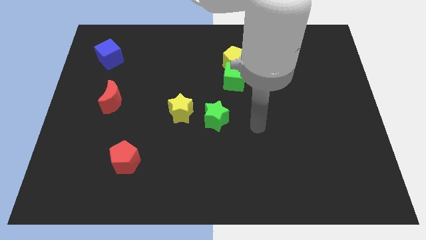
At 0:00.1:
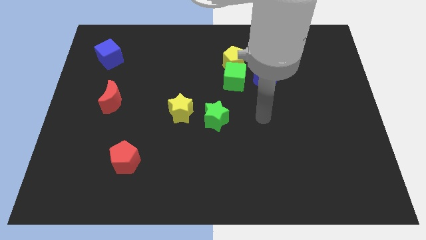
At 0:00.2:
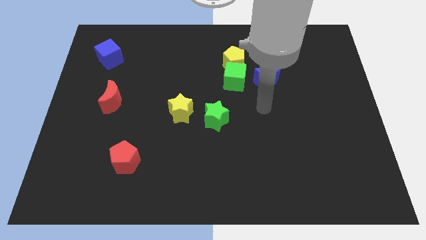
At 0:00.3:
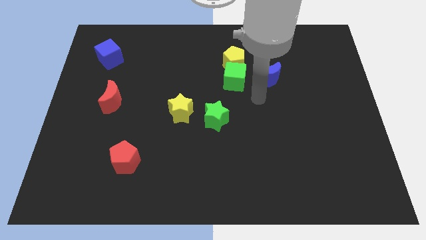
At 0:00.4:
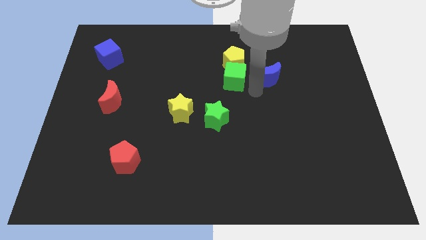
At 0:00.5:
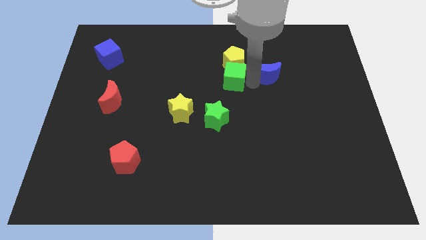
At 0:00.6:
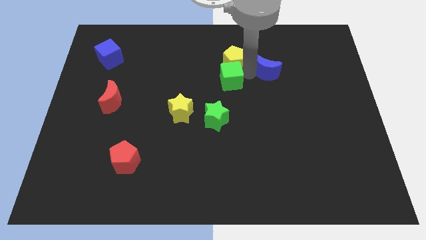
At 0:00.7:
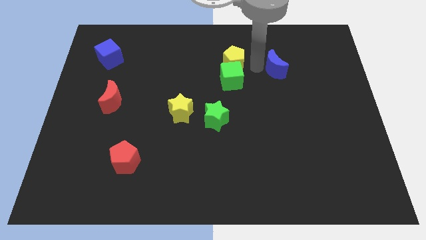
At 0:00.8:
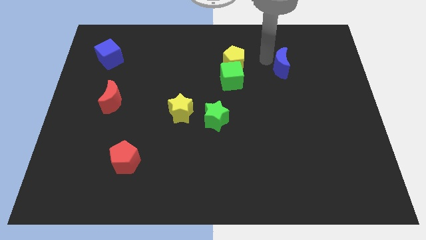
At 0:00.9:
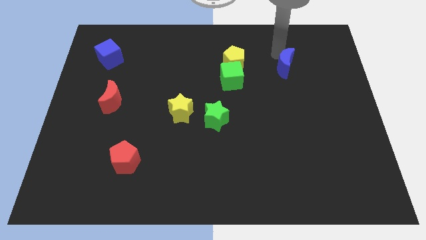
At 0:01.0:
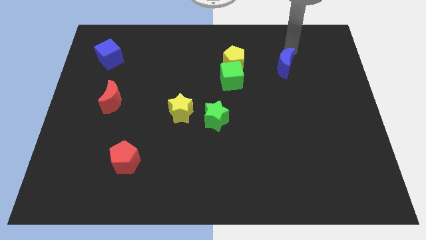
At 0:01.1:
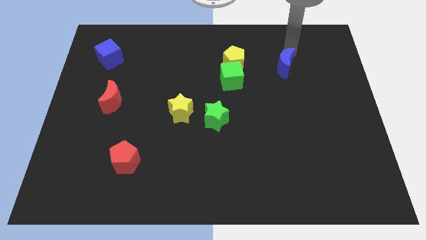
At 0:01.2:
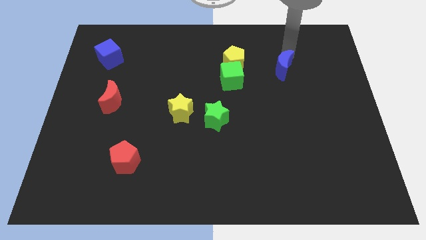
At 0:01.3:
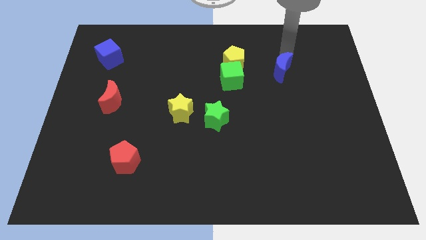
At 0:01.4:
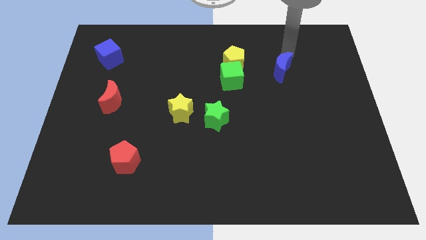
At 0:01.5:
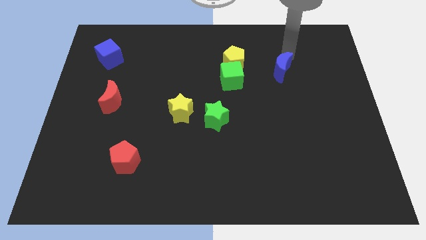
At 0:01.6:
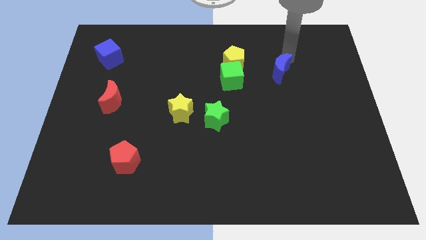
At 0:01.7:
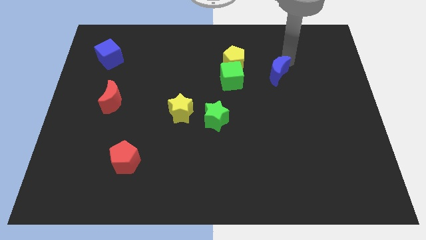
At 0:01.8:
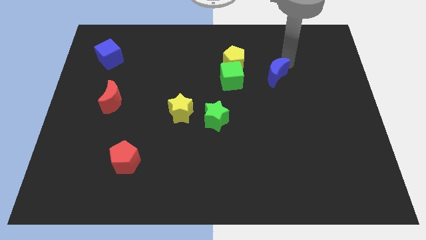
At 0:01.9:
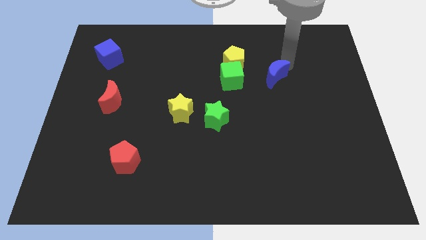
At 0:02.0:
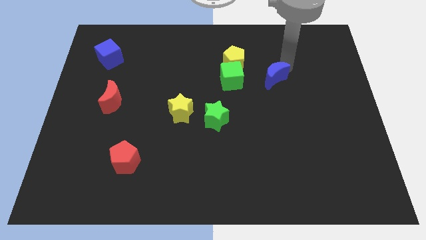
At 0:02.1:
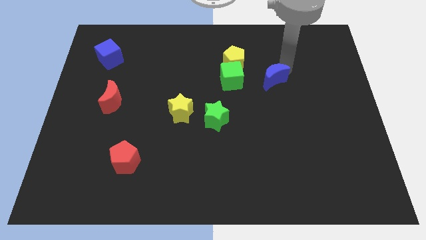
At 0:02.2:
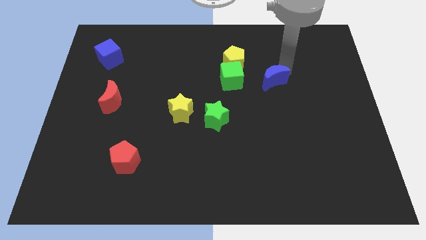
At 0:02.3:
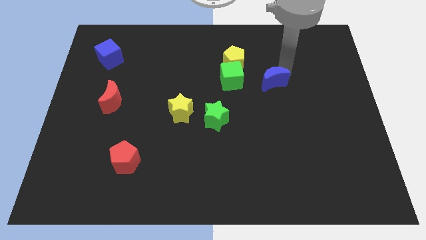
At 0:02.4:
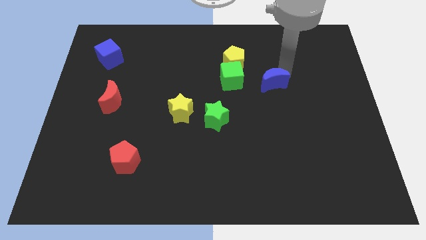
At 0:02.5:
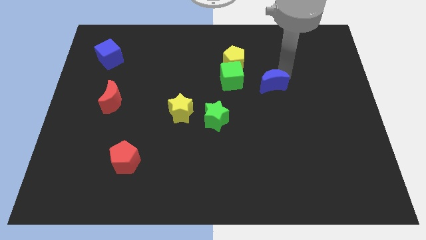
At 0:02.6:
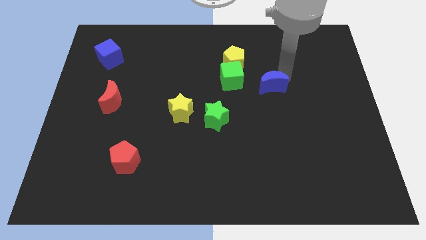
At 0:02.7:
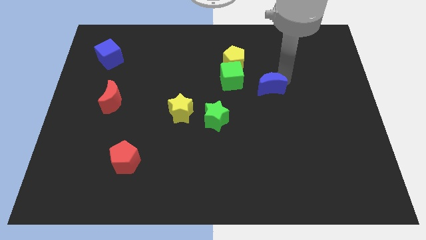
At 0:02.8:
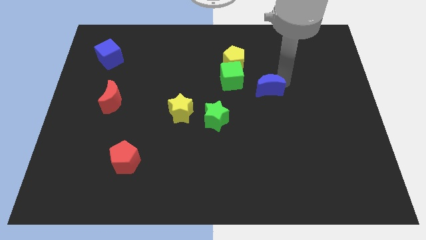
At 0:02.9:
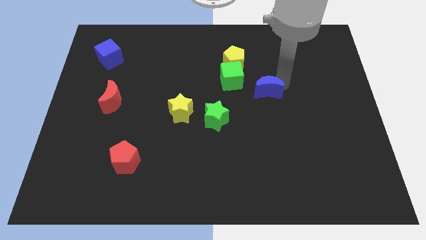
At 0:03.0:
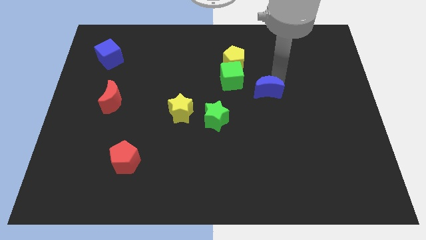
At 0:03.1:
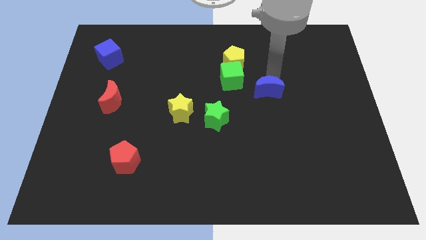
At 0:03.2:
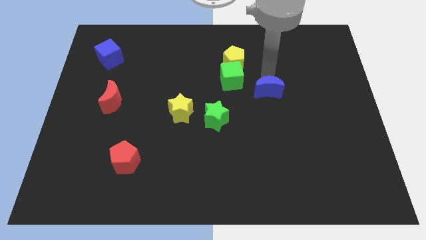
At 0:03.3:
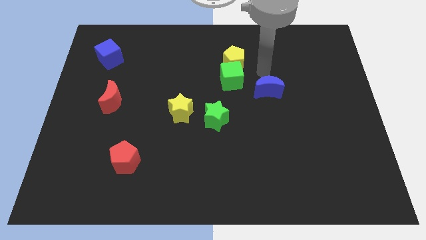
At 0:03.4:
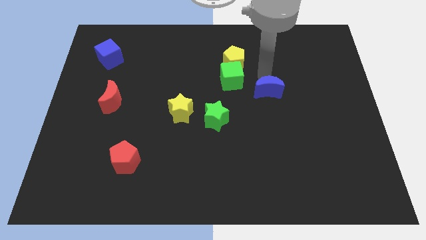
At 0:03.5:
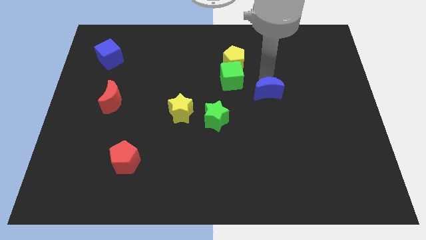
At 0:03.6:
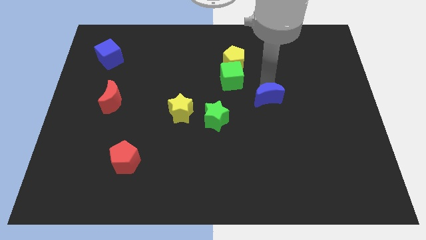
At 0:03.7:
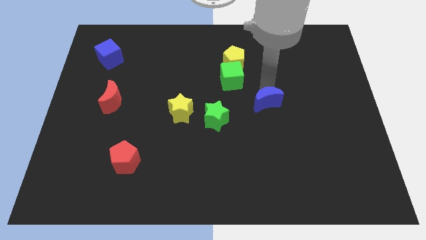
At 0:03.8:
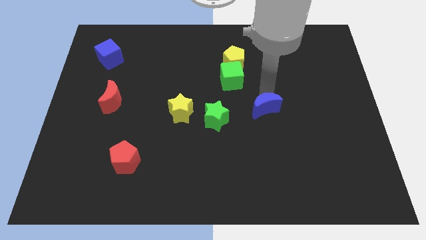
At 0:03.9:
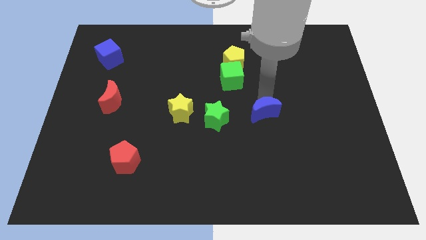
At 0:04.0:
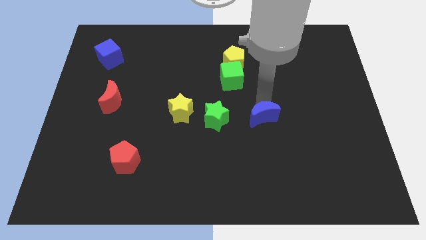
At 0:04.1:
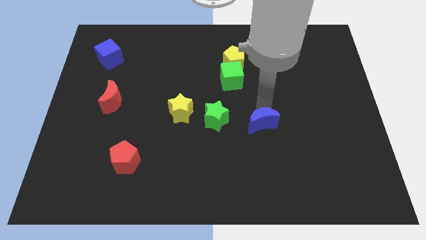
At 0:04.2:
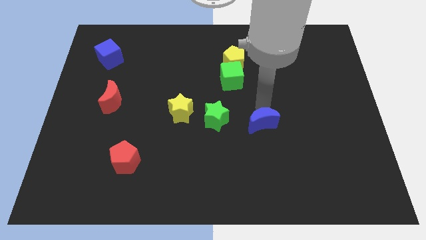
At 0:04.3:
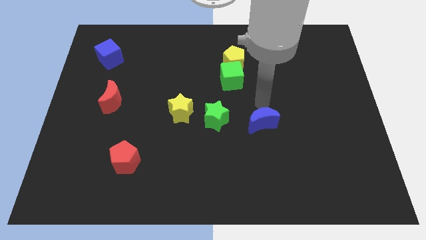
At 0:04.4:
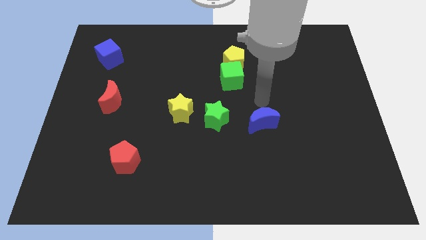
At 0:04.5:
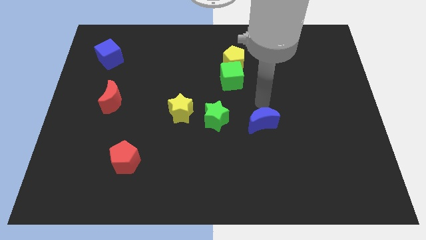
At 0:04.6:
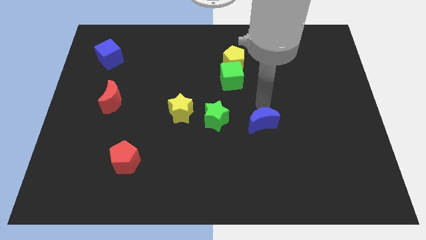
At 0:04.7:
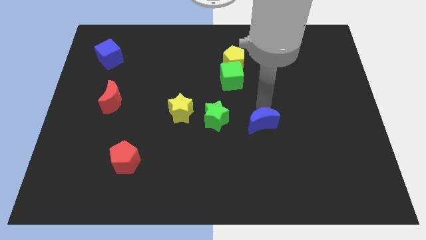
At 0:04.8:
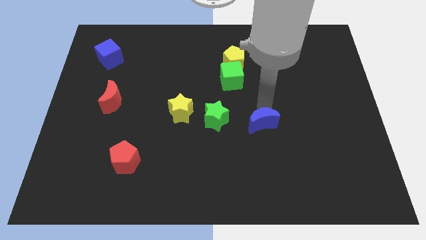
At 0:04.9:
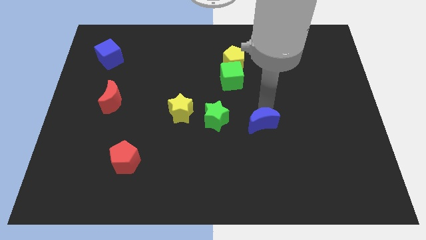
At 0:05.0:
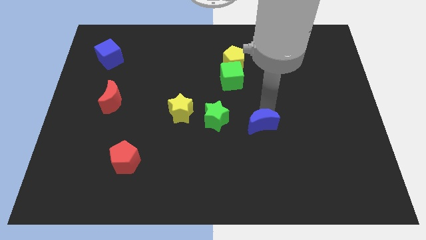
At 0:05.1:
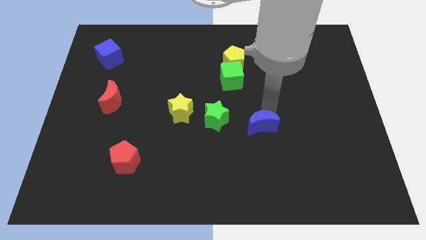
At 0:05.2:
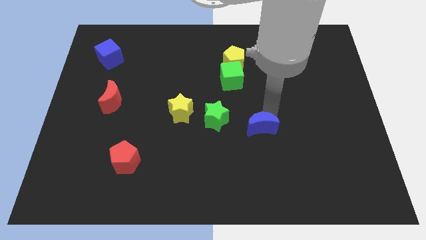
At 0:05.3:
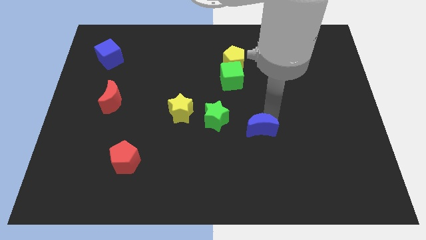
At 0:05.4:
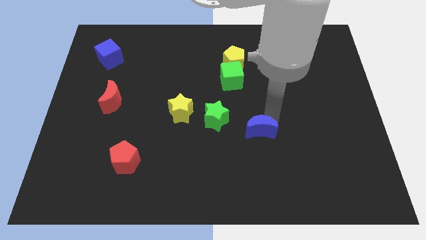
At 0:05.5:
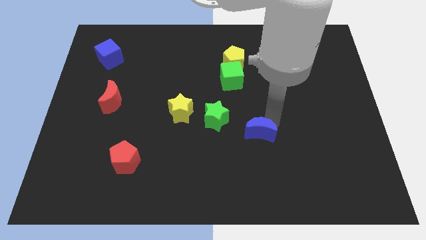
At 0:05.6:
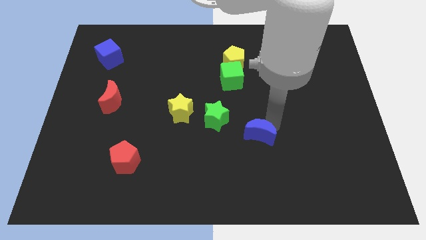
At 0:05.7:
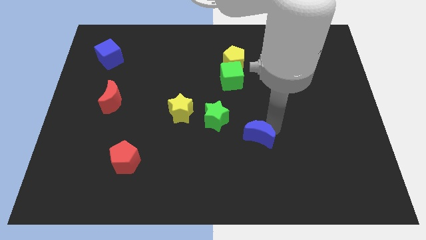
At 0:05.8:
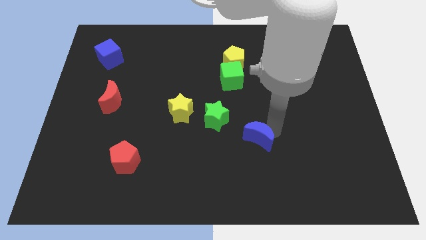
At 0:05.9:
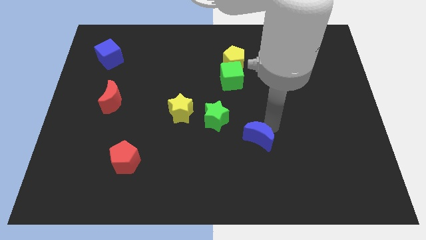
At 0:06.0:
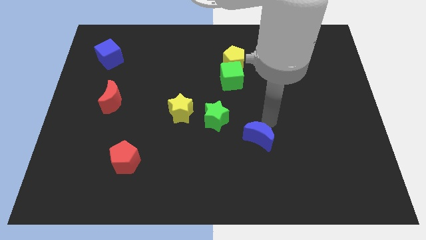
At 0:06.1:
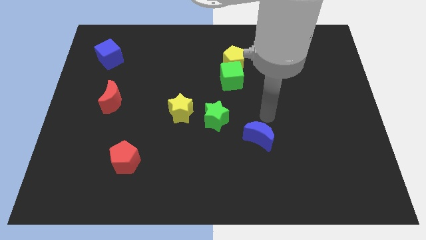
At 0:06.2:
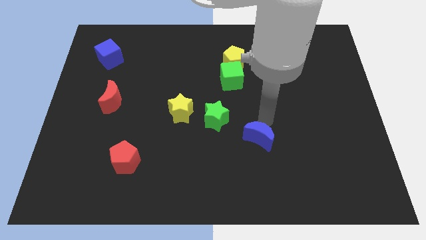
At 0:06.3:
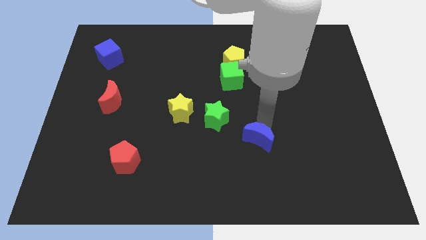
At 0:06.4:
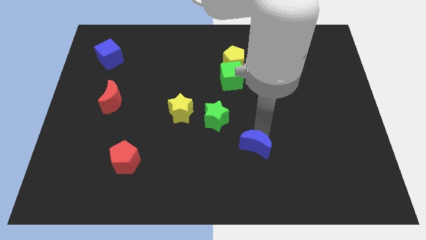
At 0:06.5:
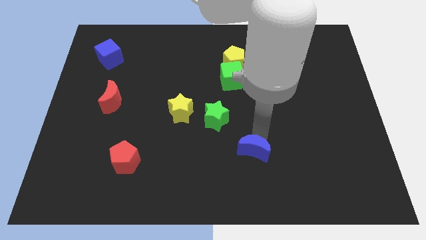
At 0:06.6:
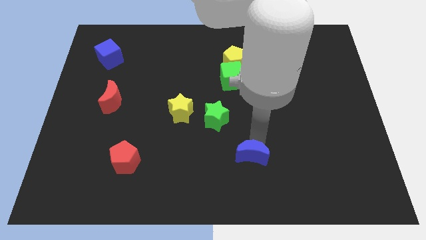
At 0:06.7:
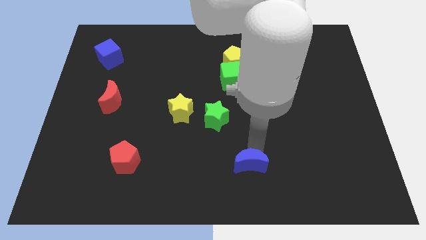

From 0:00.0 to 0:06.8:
push the blue moon to the bottom

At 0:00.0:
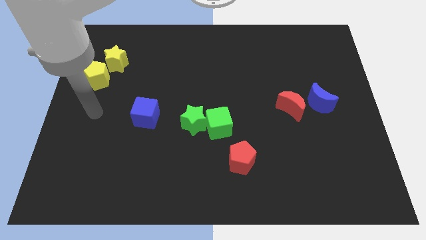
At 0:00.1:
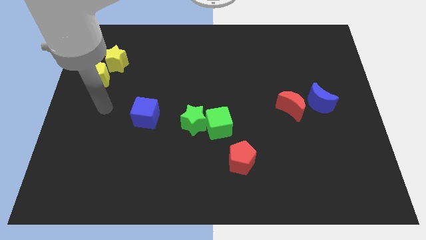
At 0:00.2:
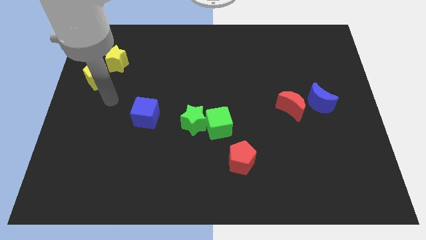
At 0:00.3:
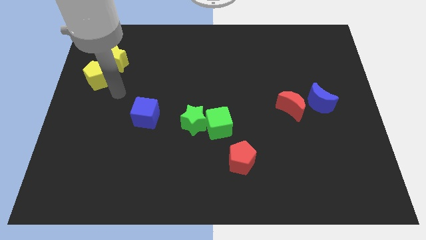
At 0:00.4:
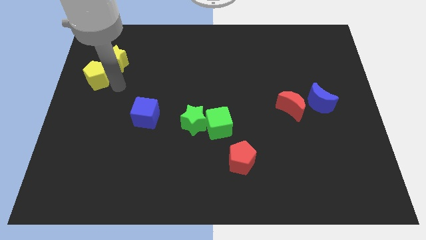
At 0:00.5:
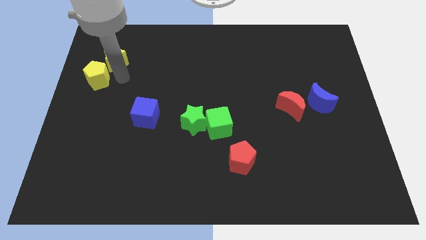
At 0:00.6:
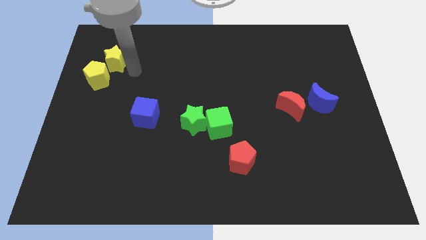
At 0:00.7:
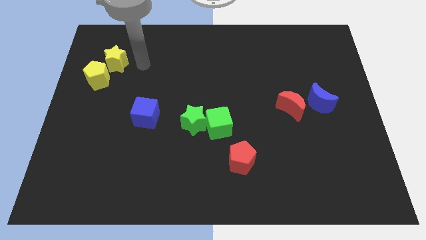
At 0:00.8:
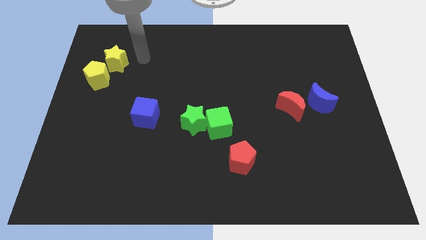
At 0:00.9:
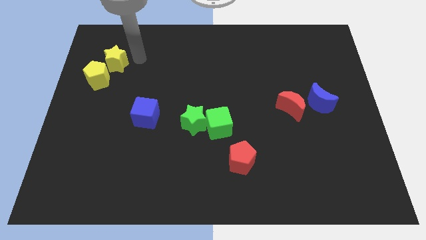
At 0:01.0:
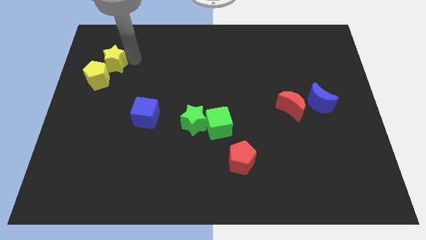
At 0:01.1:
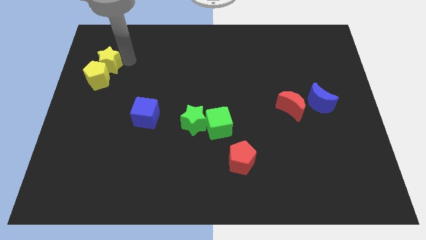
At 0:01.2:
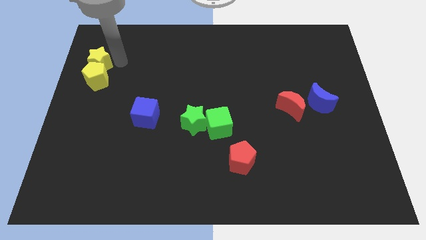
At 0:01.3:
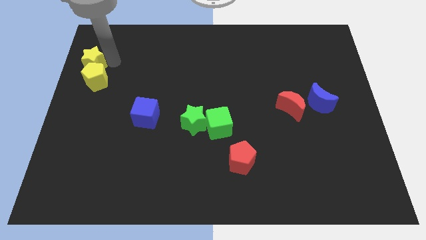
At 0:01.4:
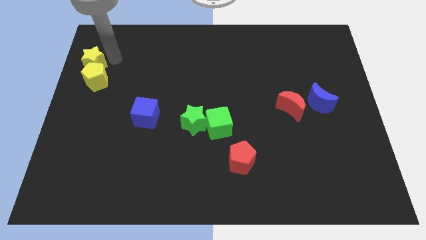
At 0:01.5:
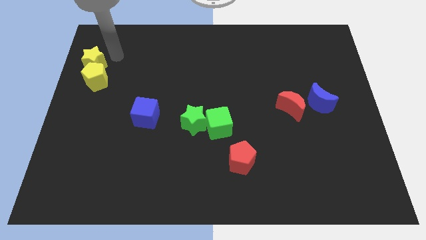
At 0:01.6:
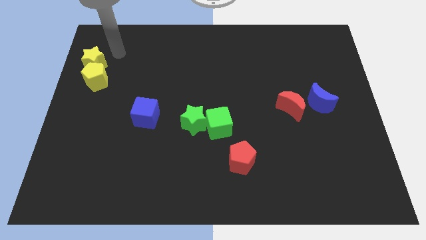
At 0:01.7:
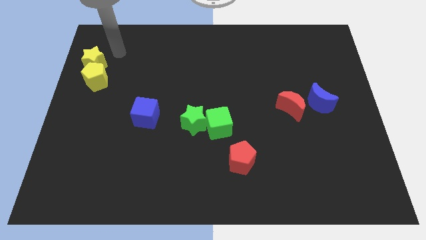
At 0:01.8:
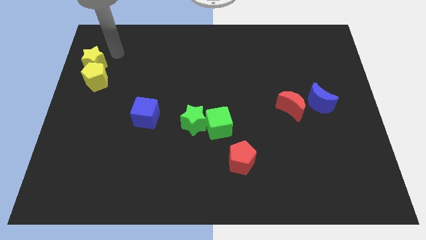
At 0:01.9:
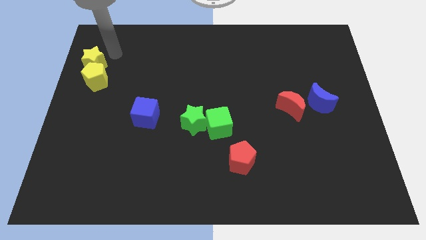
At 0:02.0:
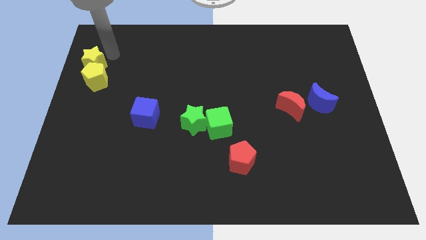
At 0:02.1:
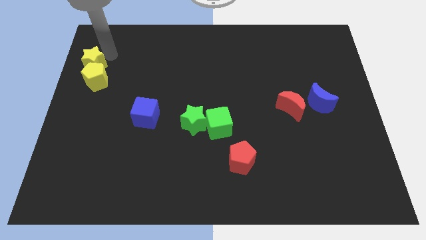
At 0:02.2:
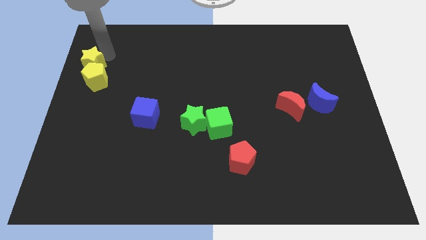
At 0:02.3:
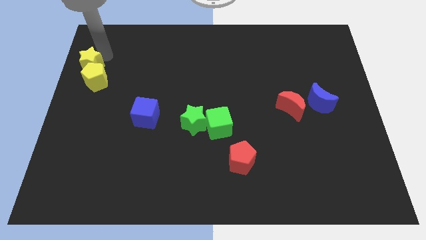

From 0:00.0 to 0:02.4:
slide the yellow star to the left side
